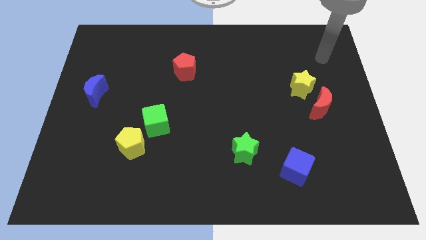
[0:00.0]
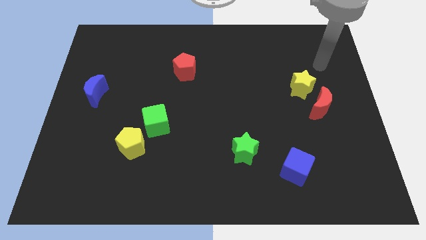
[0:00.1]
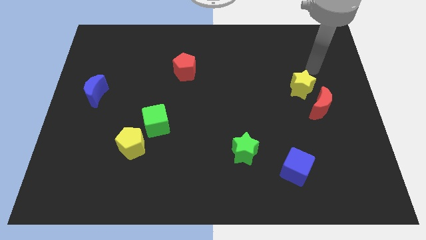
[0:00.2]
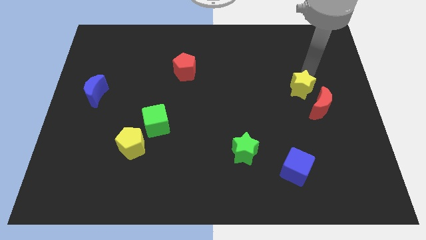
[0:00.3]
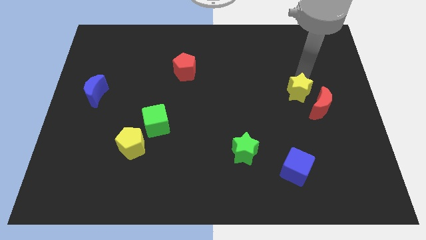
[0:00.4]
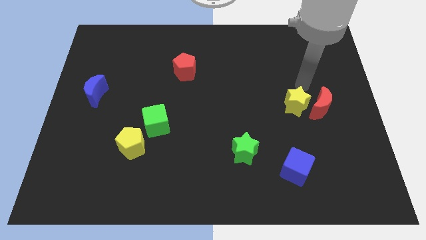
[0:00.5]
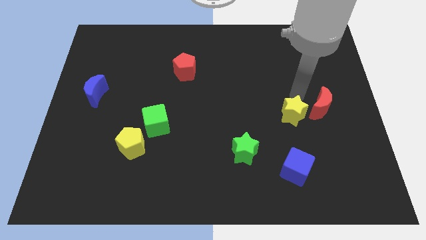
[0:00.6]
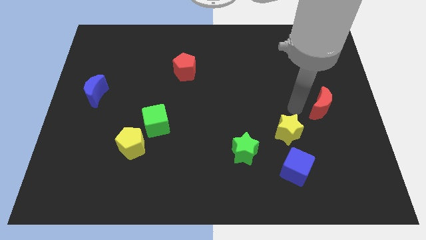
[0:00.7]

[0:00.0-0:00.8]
separate the red moon from the yellow star

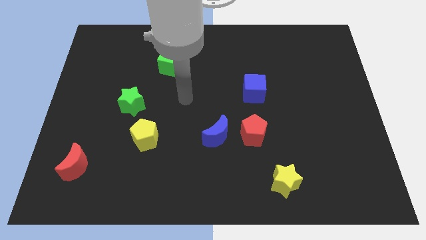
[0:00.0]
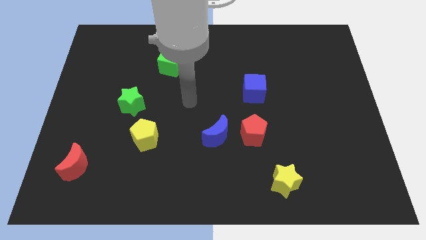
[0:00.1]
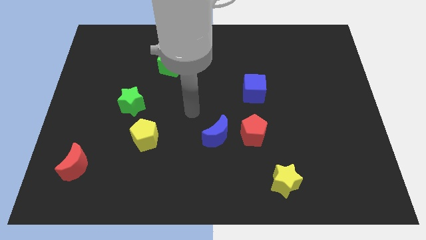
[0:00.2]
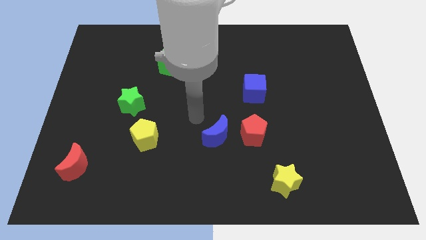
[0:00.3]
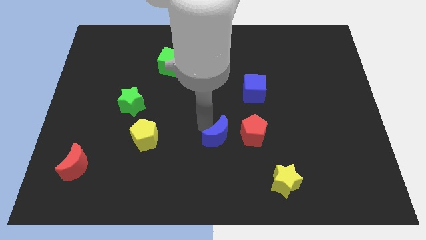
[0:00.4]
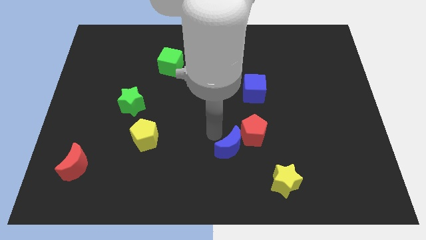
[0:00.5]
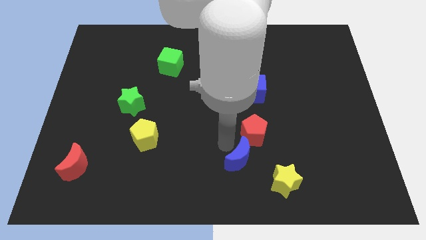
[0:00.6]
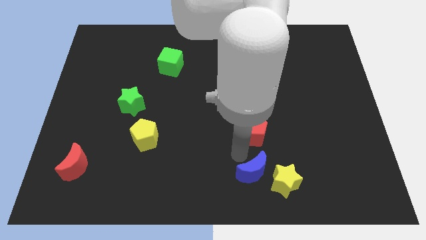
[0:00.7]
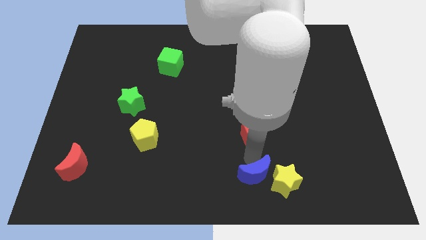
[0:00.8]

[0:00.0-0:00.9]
pull the red pentagon apart from the blue moon

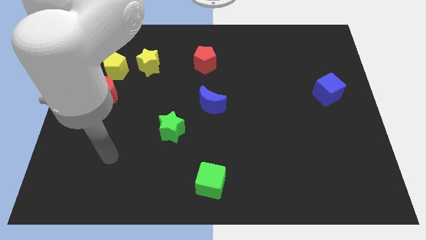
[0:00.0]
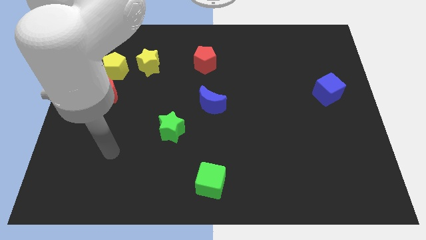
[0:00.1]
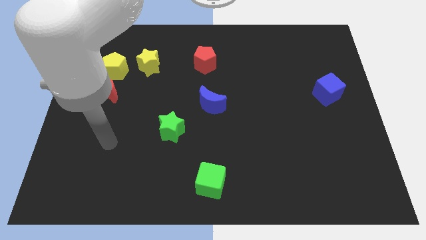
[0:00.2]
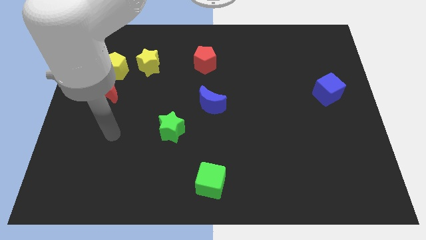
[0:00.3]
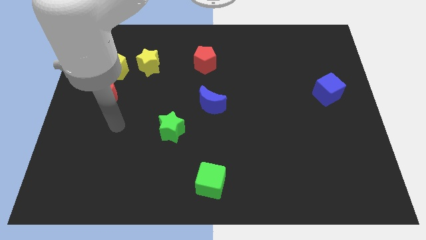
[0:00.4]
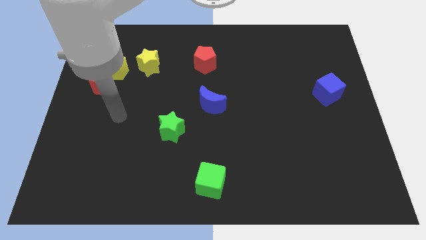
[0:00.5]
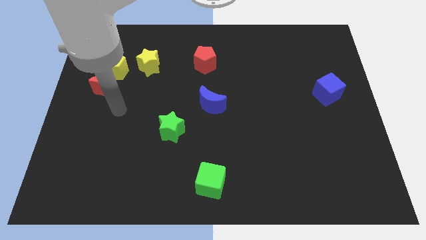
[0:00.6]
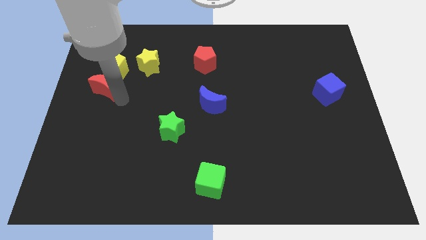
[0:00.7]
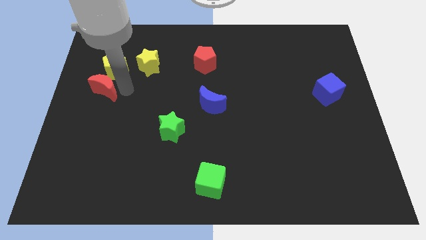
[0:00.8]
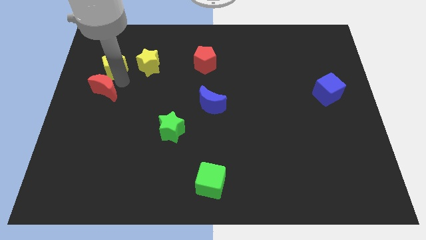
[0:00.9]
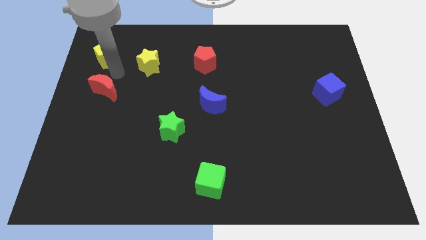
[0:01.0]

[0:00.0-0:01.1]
move the red moon away from the yellow pentagon

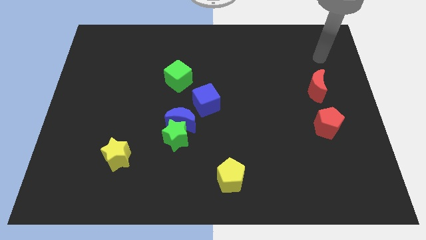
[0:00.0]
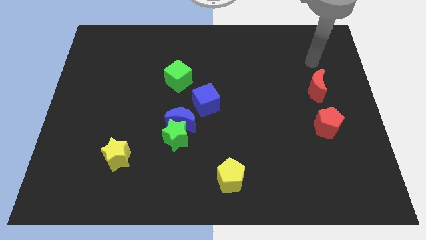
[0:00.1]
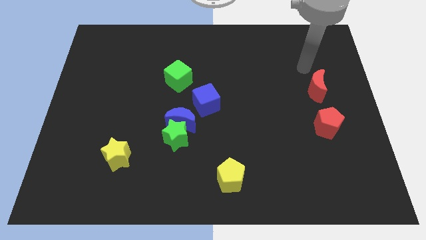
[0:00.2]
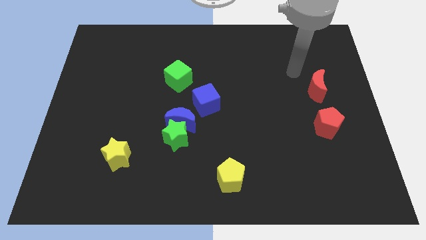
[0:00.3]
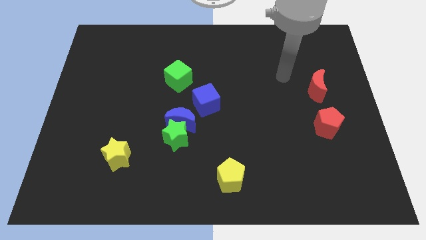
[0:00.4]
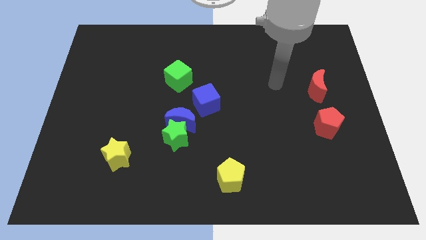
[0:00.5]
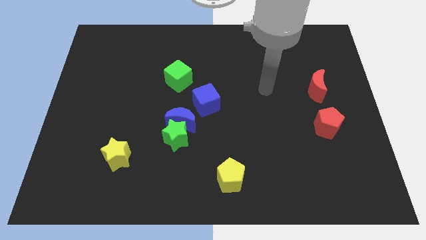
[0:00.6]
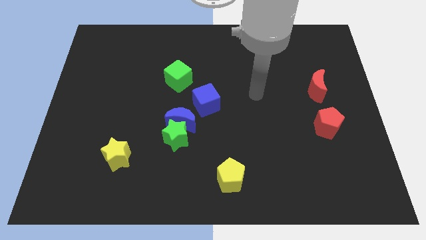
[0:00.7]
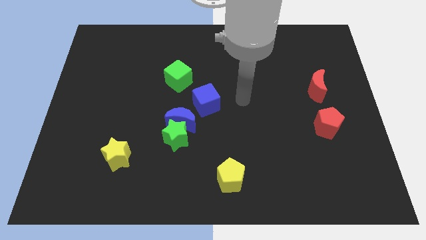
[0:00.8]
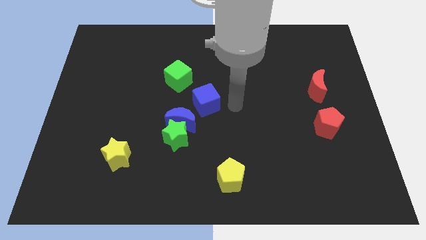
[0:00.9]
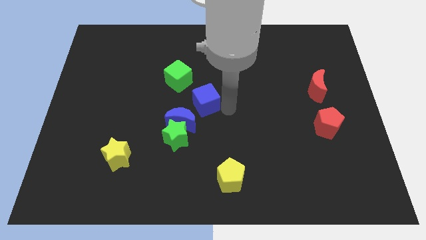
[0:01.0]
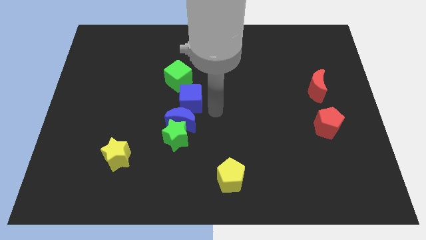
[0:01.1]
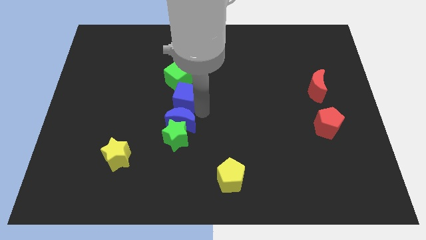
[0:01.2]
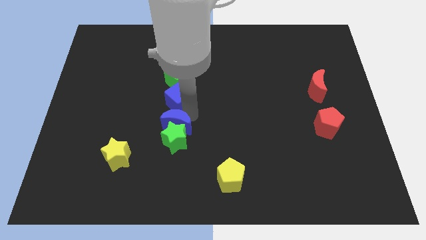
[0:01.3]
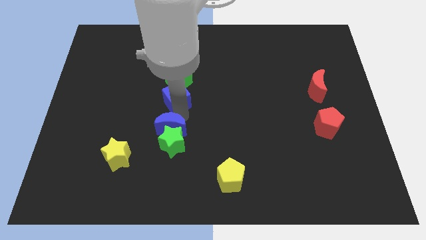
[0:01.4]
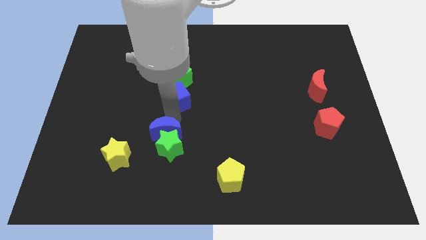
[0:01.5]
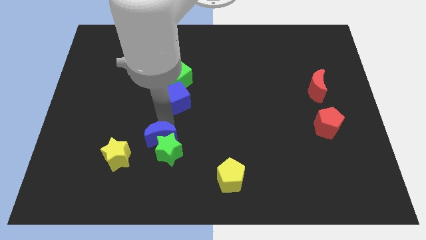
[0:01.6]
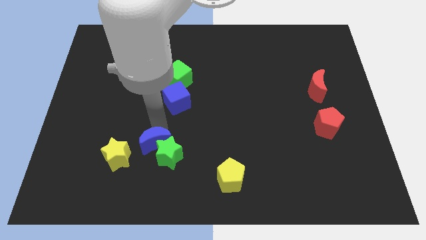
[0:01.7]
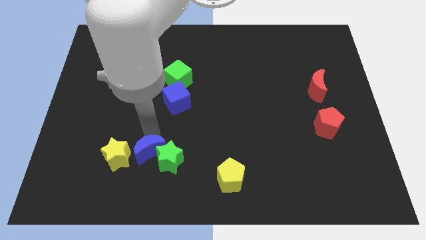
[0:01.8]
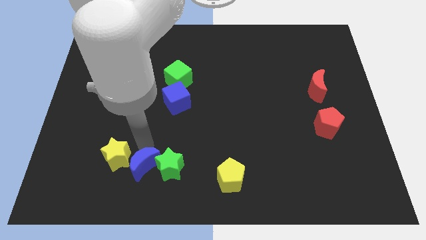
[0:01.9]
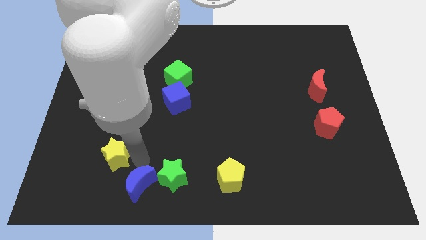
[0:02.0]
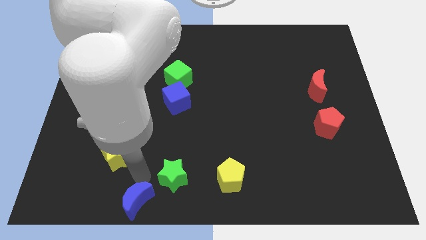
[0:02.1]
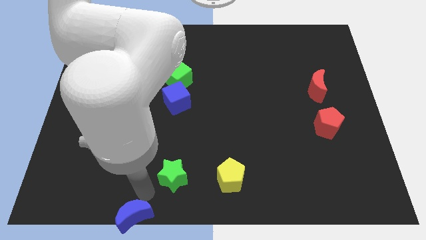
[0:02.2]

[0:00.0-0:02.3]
separate the green star from the blue moon

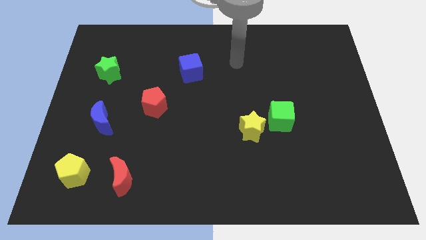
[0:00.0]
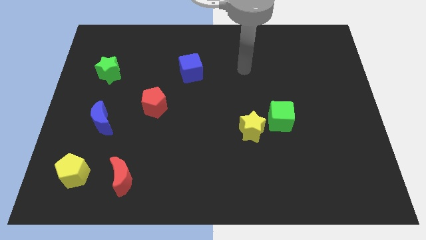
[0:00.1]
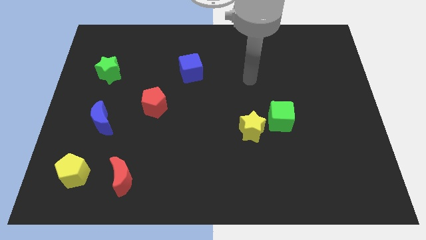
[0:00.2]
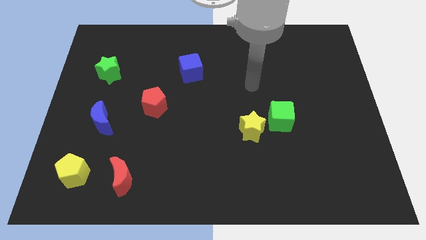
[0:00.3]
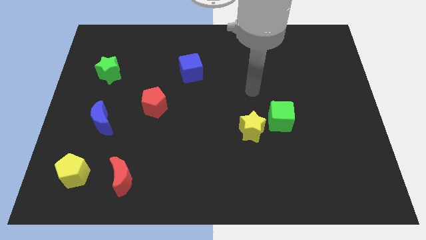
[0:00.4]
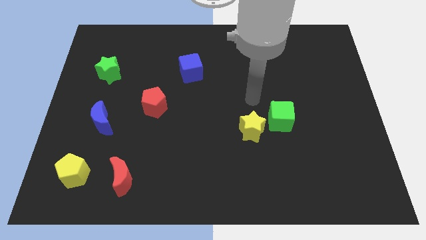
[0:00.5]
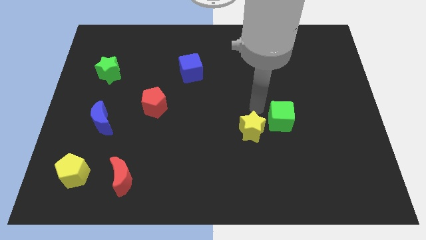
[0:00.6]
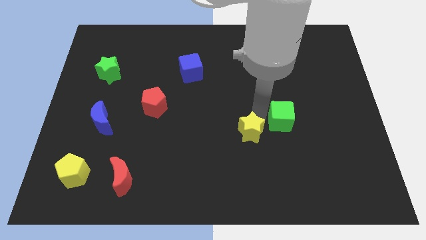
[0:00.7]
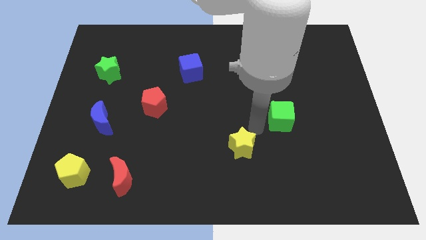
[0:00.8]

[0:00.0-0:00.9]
move the green cube away from the yellow star

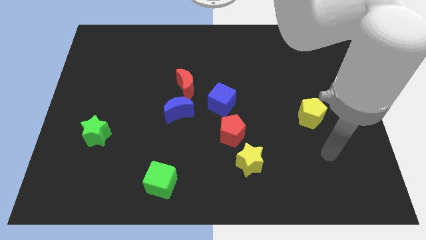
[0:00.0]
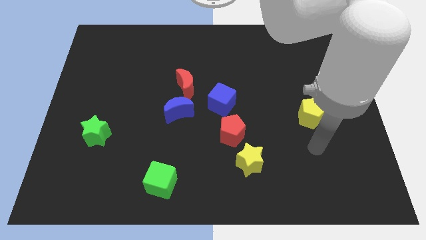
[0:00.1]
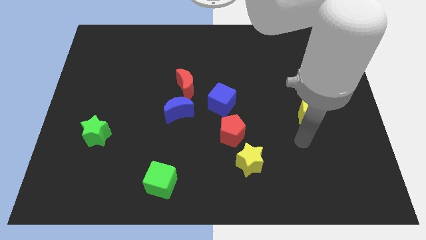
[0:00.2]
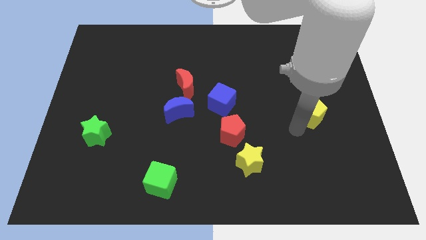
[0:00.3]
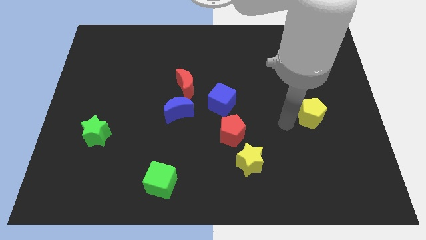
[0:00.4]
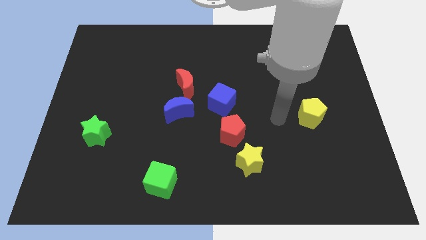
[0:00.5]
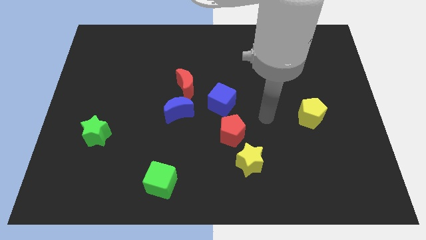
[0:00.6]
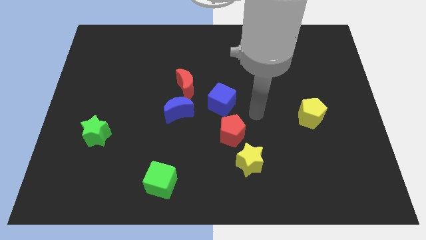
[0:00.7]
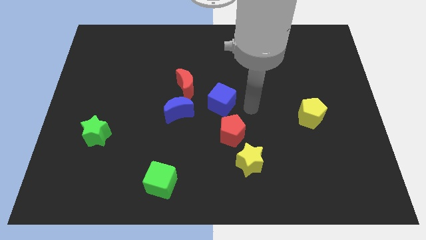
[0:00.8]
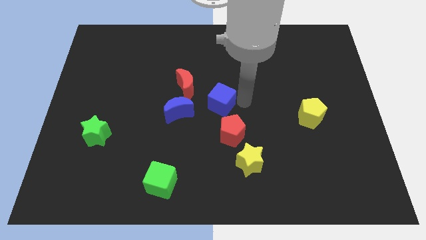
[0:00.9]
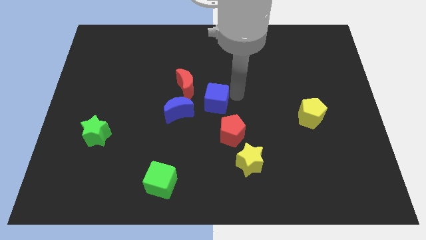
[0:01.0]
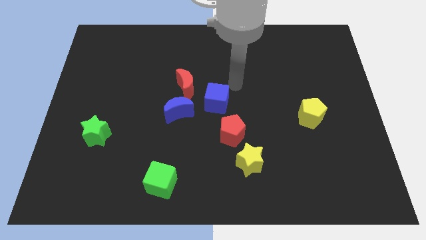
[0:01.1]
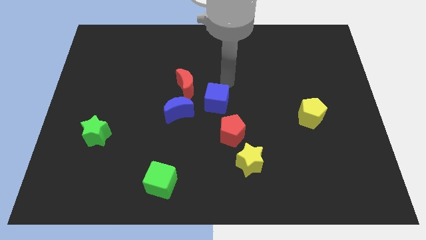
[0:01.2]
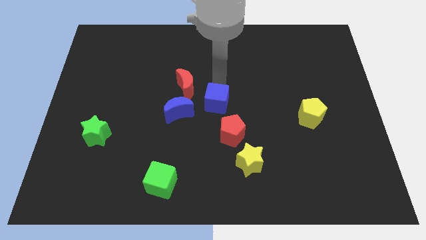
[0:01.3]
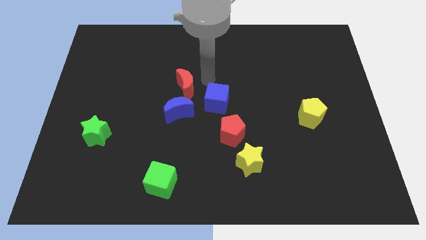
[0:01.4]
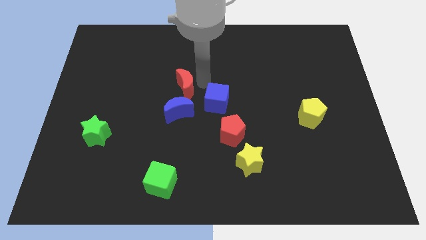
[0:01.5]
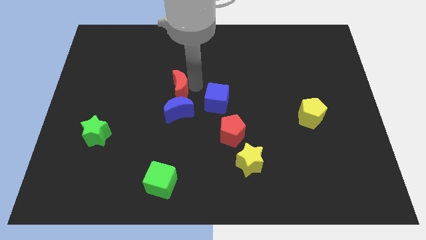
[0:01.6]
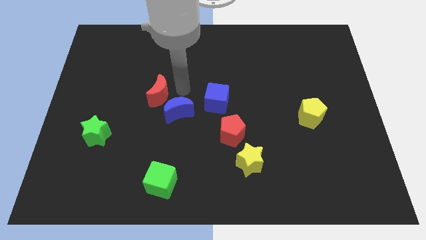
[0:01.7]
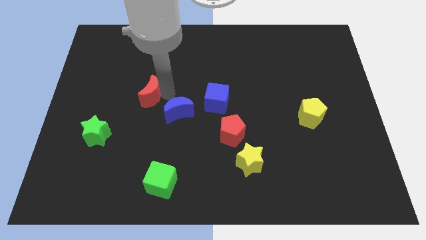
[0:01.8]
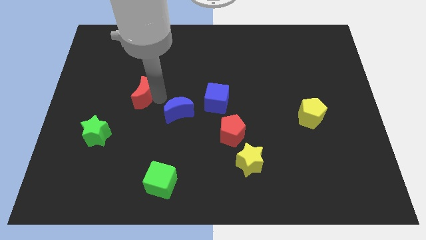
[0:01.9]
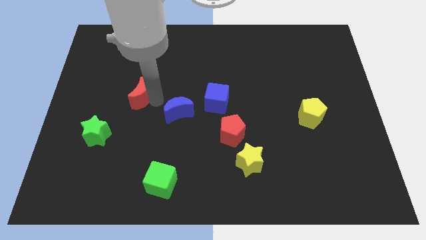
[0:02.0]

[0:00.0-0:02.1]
separate the blue moon from the red moon

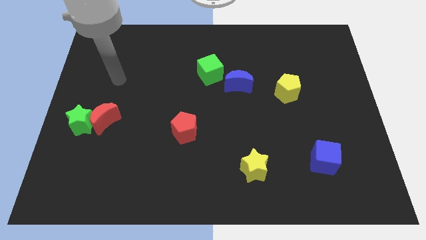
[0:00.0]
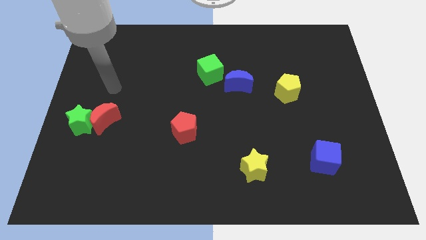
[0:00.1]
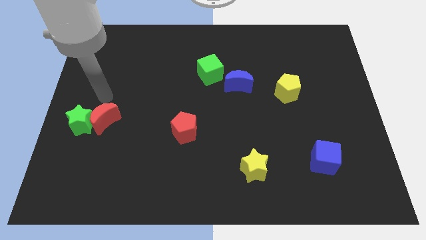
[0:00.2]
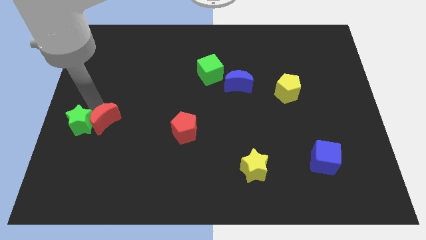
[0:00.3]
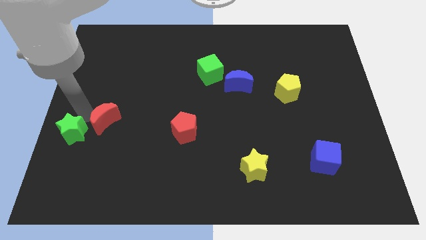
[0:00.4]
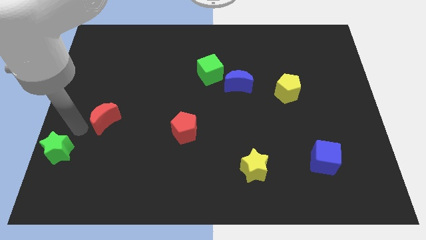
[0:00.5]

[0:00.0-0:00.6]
separate the red moon from the green star

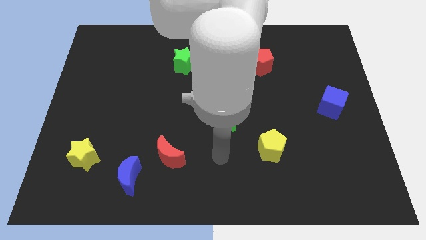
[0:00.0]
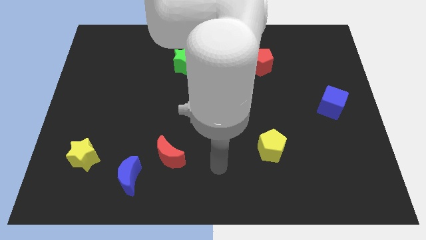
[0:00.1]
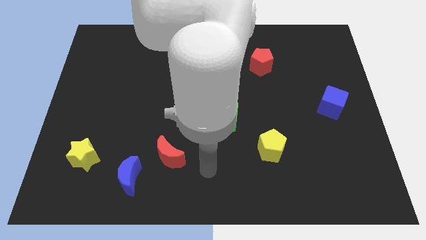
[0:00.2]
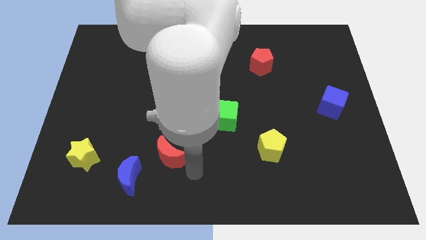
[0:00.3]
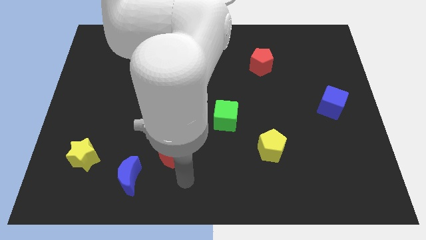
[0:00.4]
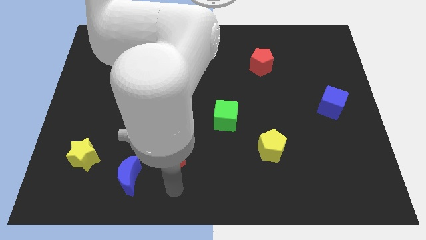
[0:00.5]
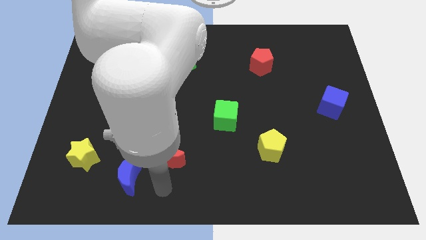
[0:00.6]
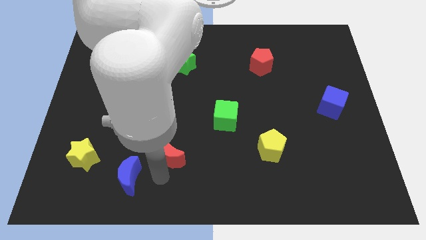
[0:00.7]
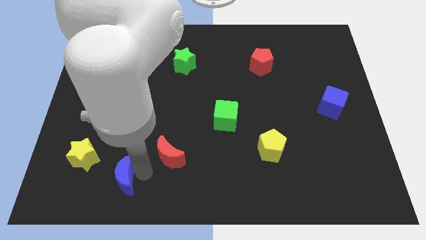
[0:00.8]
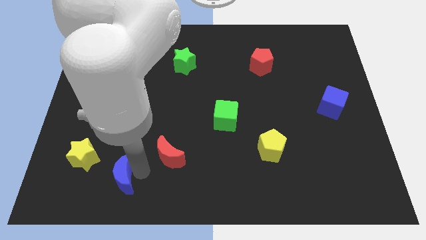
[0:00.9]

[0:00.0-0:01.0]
move the red moon away from the blue moon
